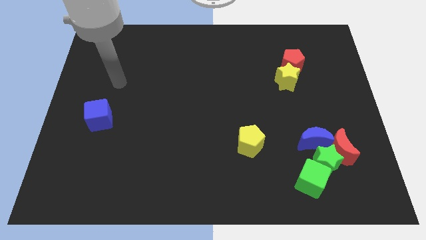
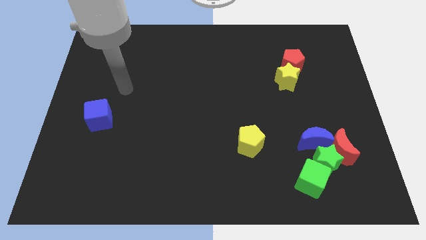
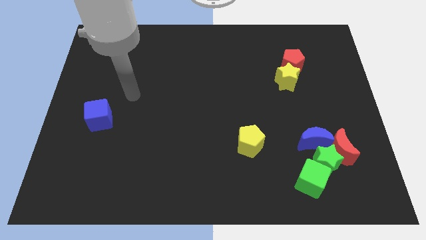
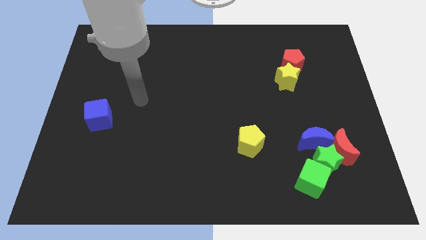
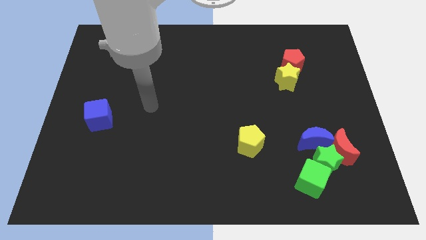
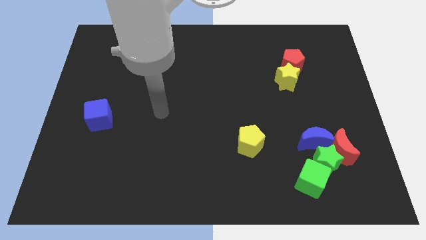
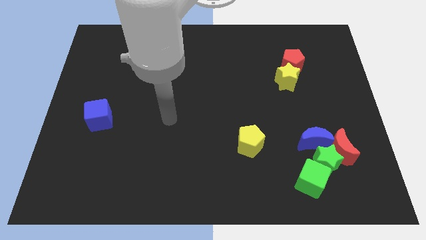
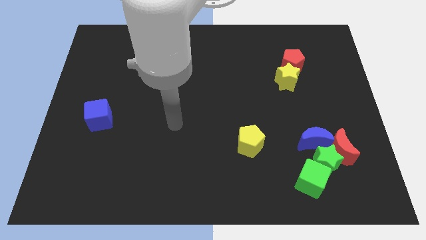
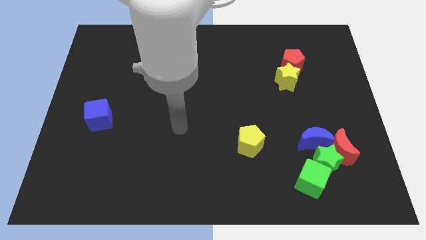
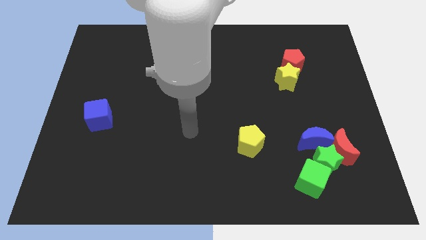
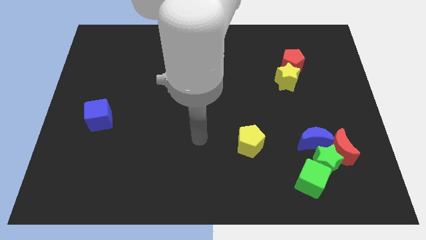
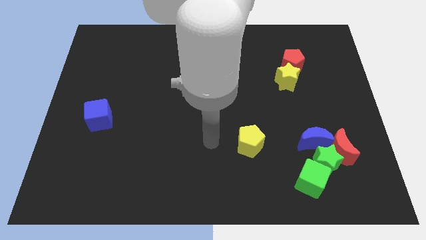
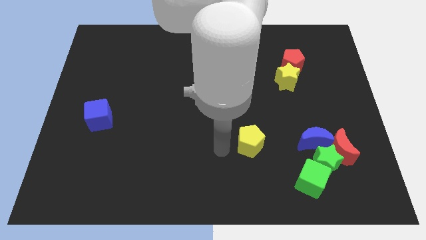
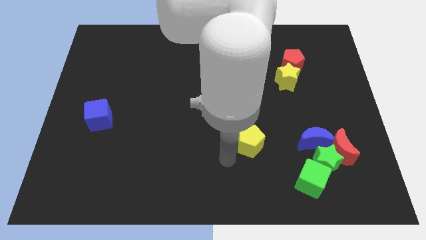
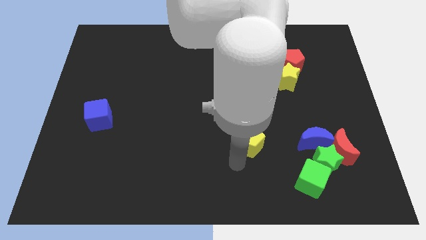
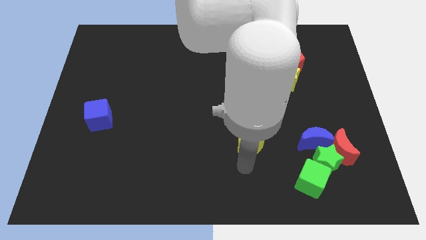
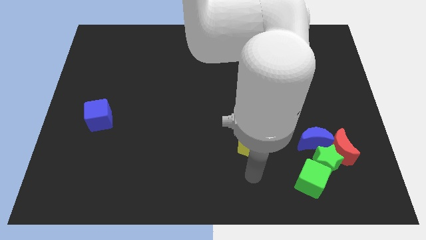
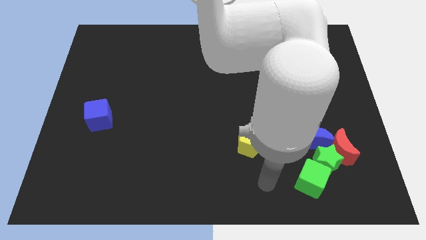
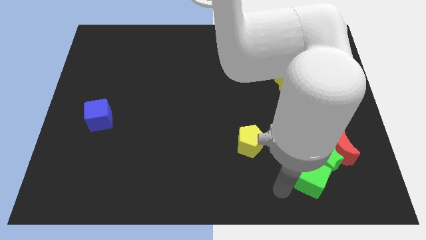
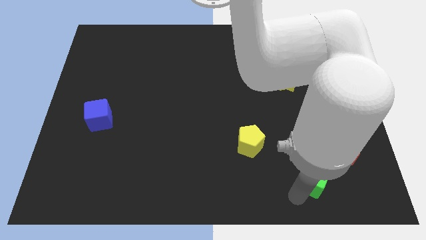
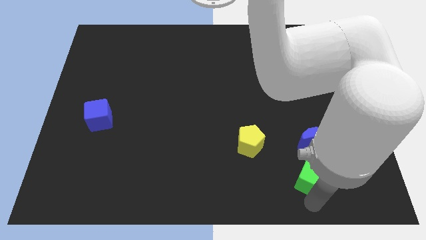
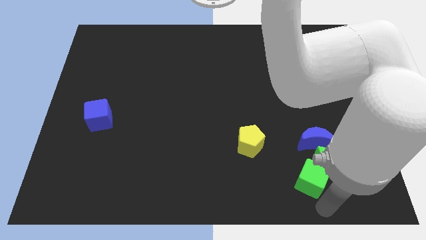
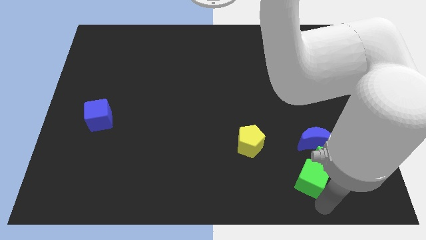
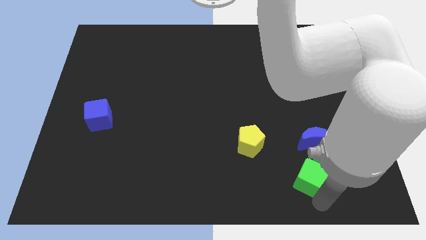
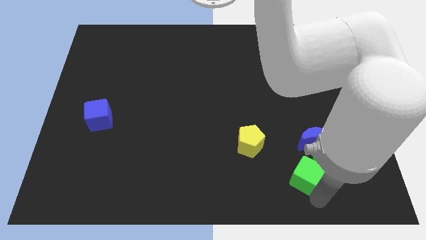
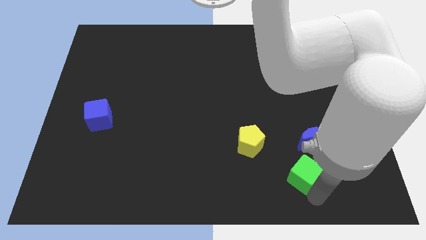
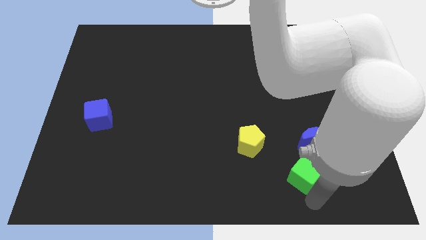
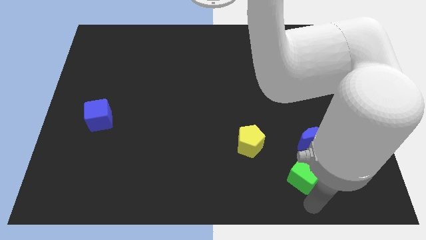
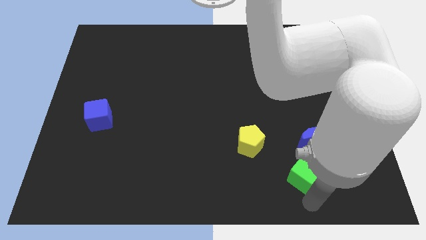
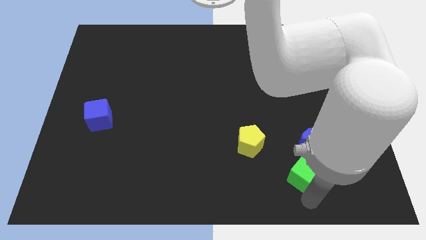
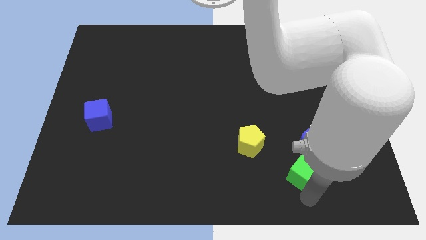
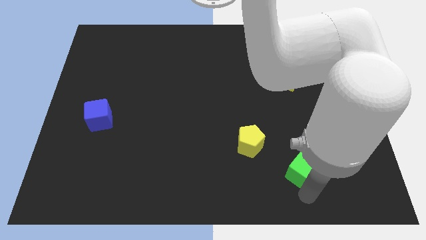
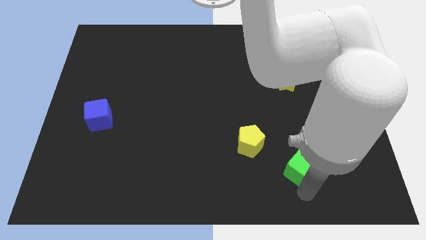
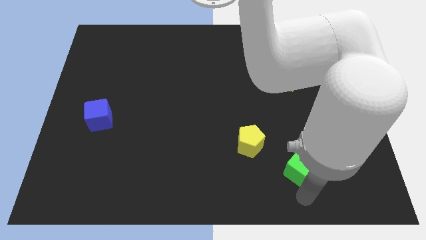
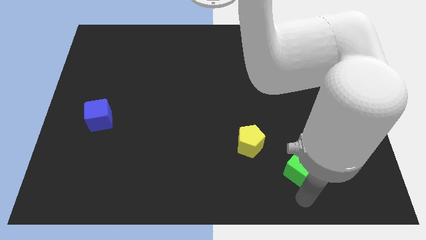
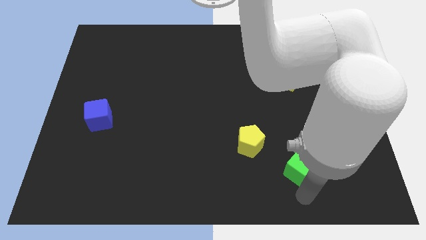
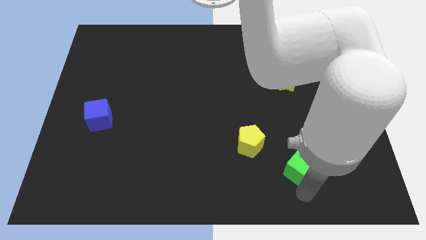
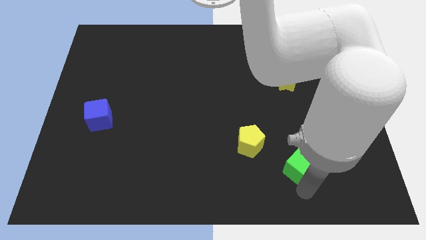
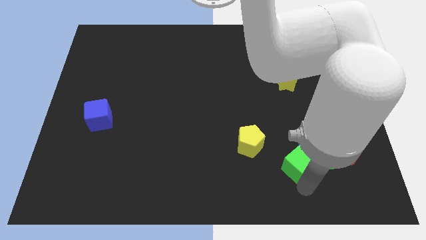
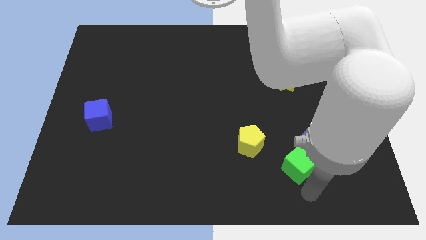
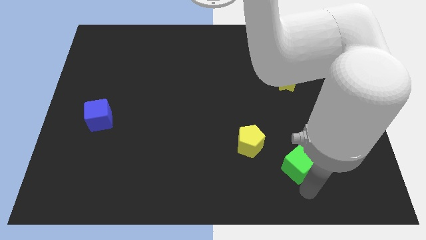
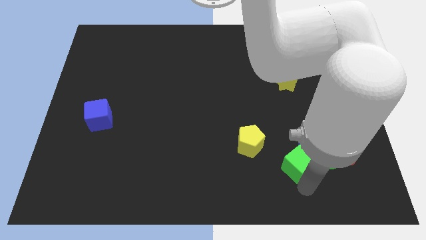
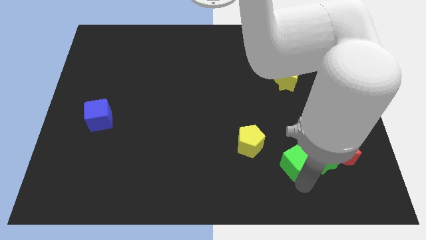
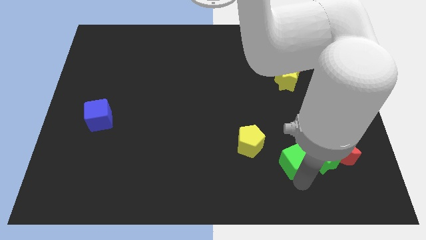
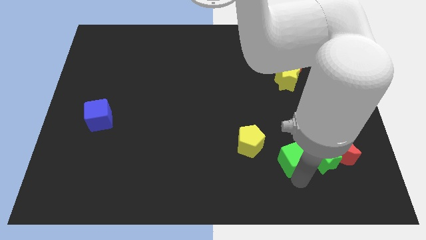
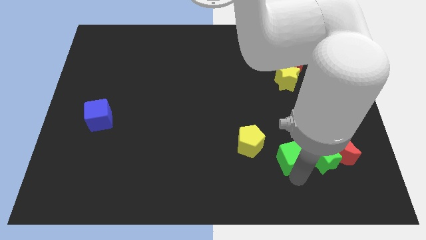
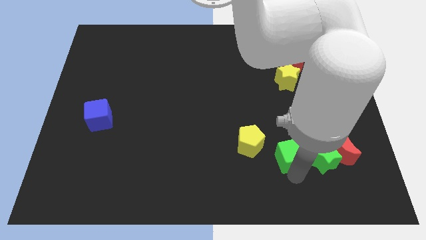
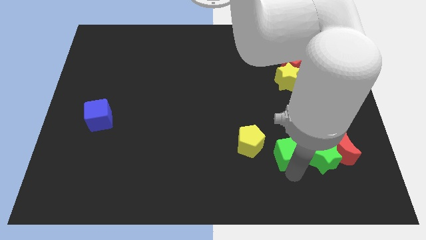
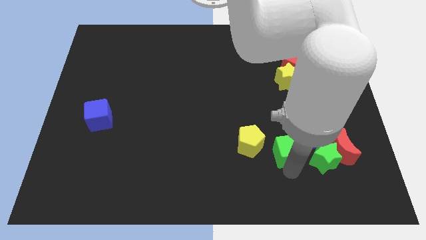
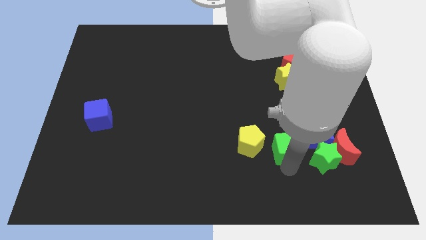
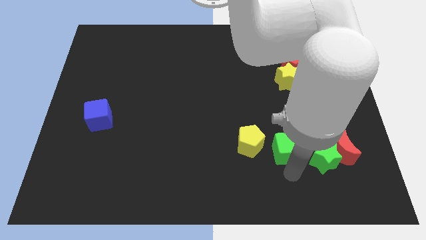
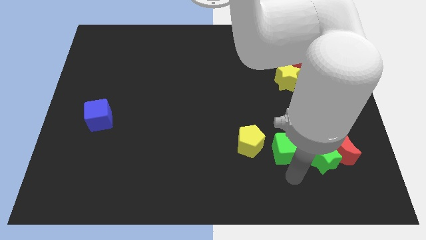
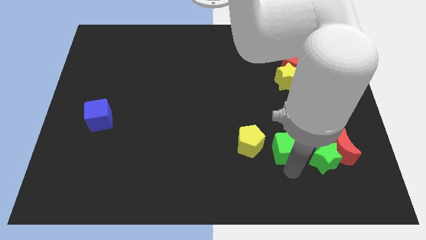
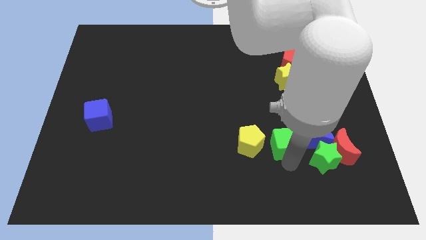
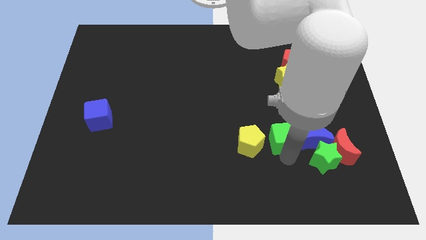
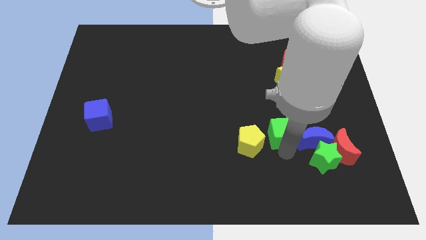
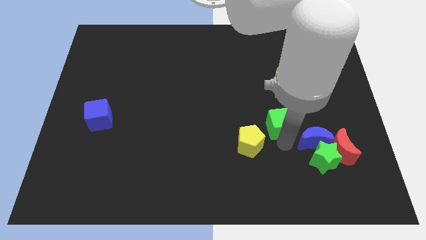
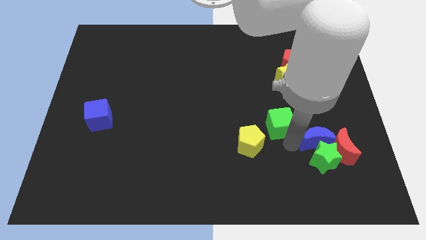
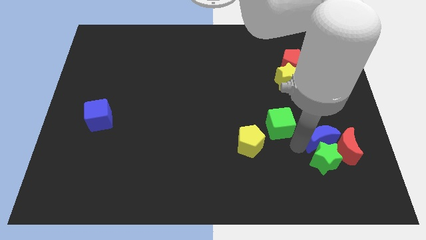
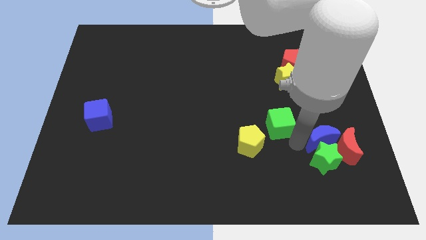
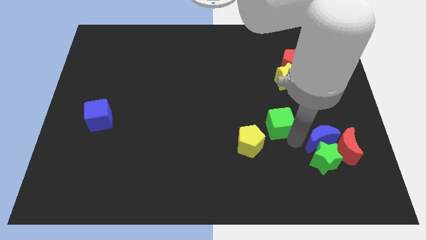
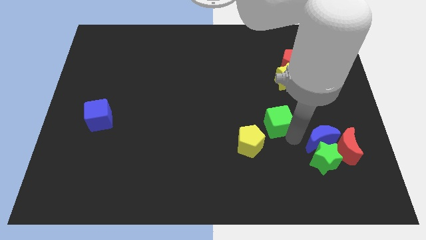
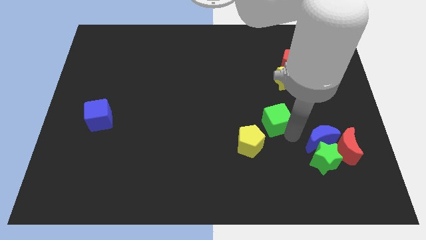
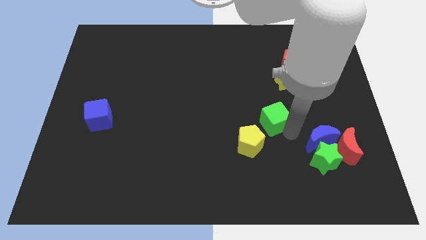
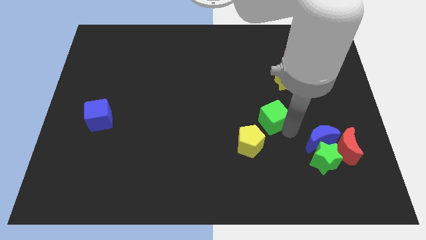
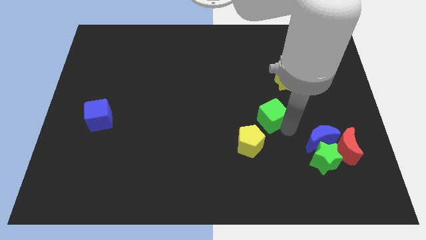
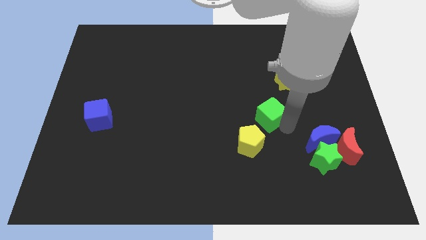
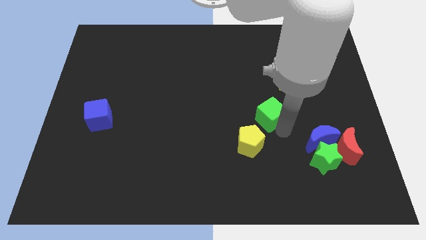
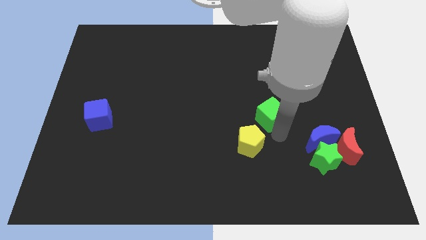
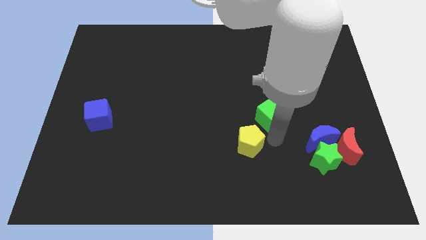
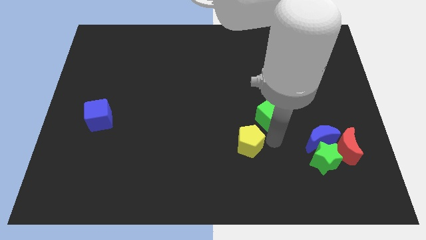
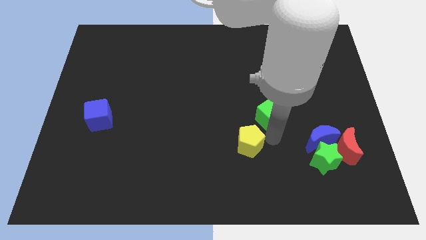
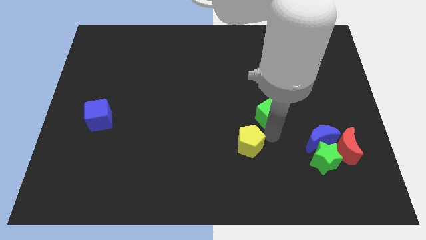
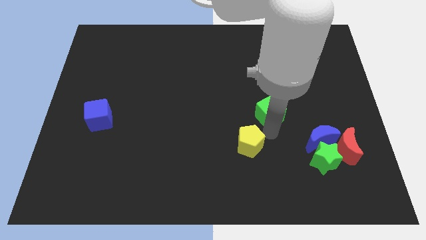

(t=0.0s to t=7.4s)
move the green cube to the bottom left of the yellow star

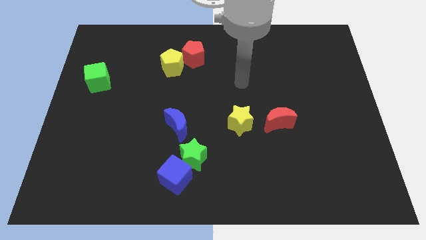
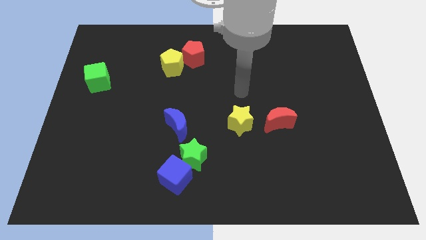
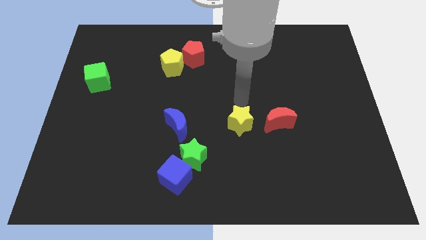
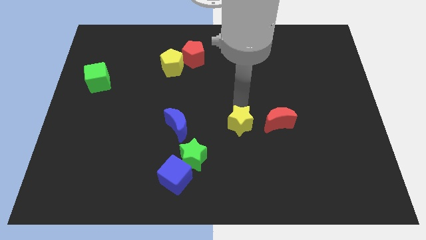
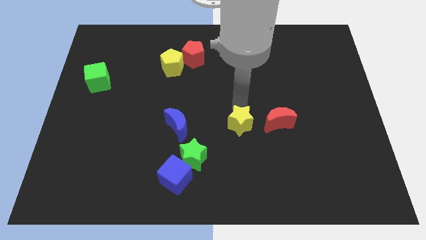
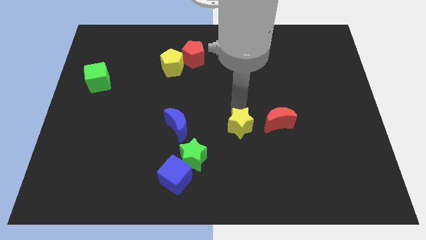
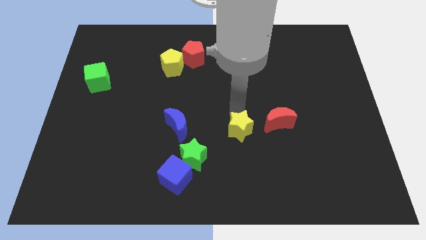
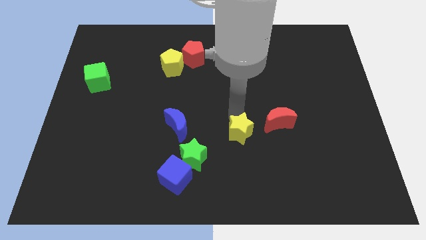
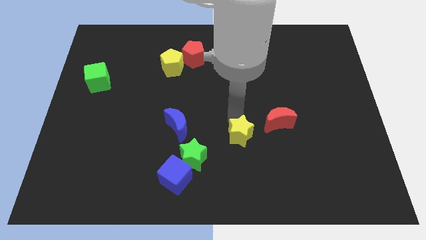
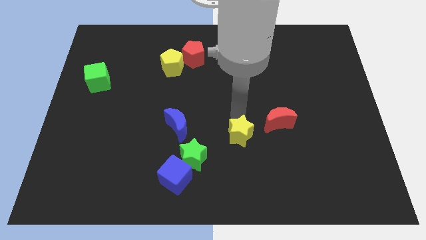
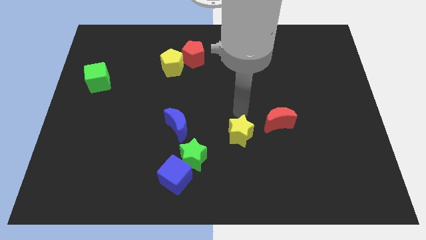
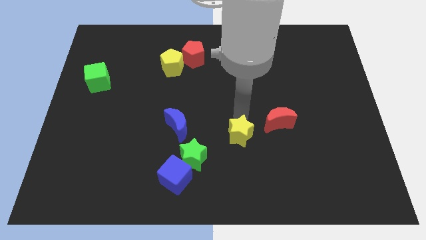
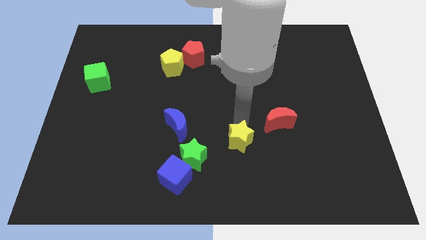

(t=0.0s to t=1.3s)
put the yellow star just right of the green star
